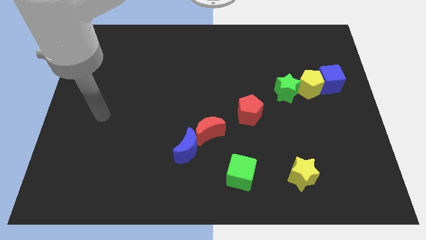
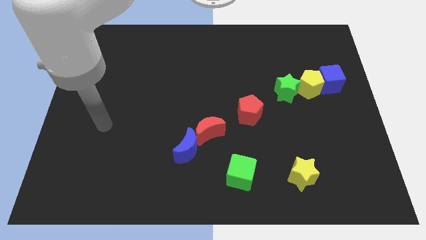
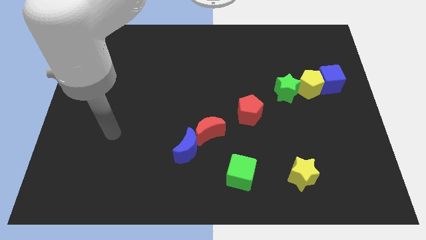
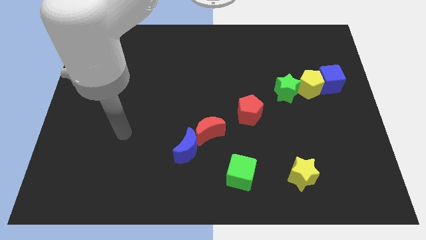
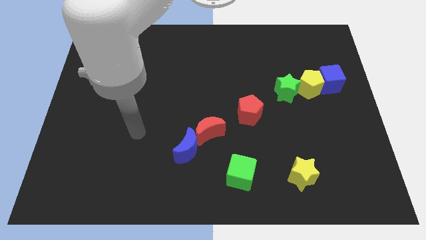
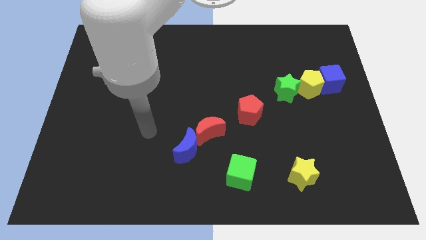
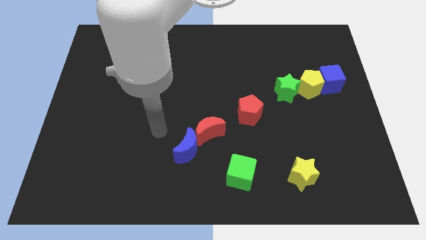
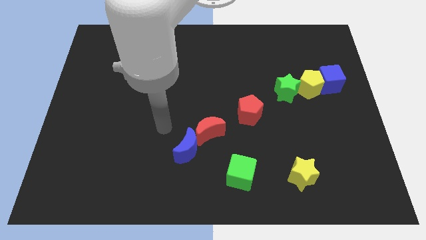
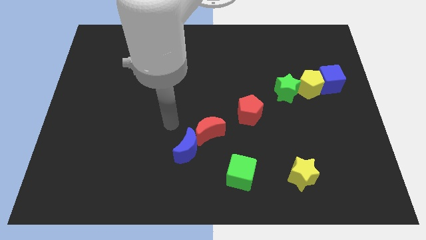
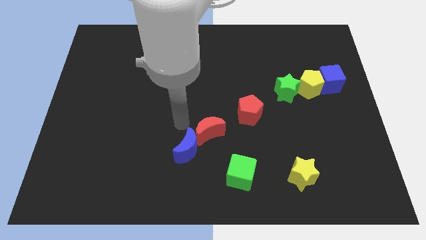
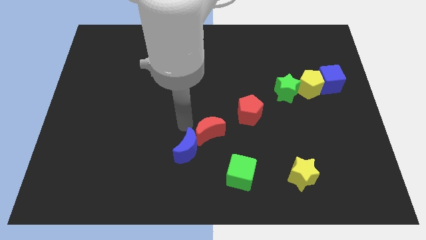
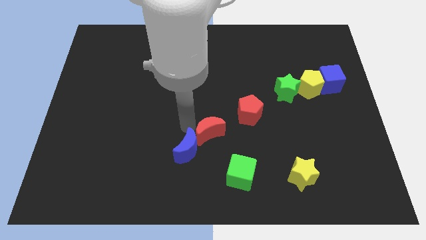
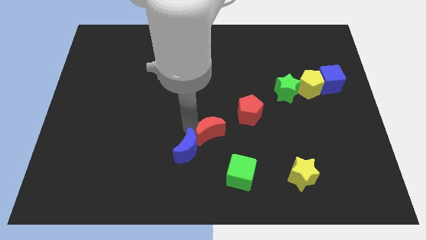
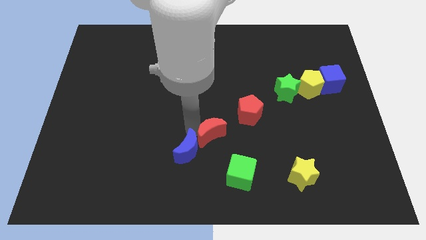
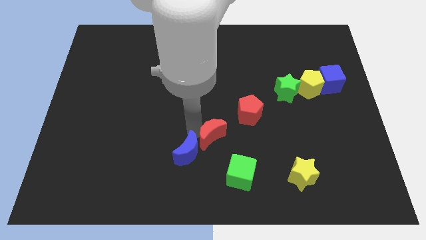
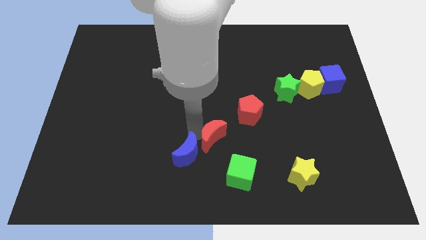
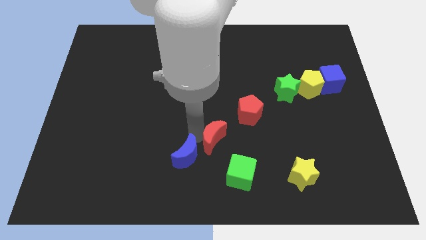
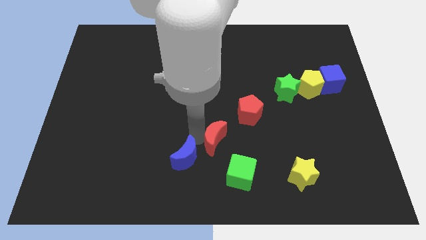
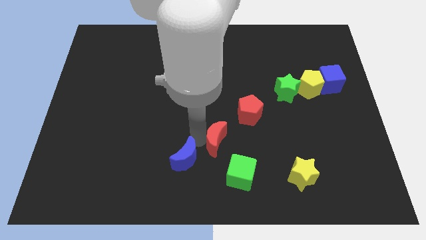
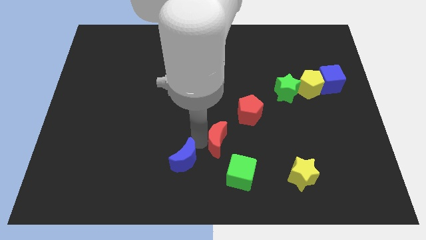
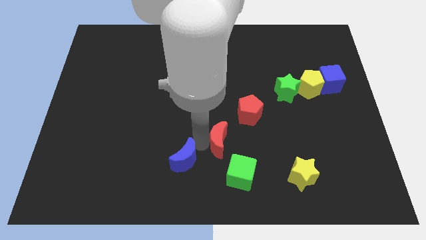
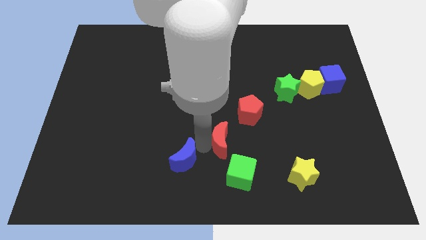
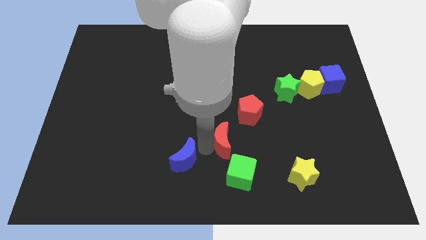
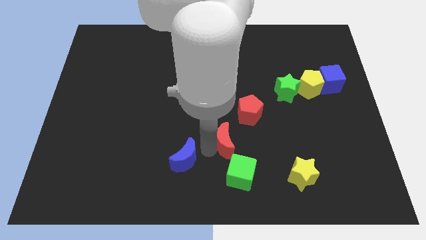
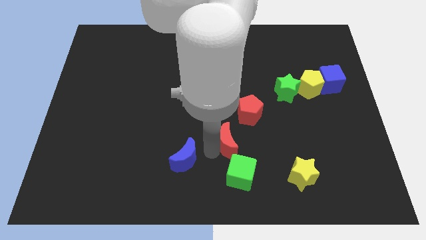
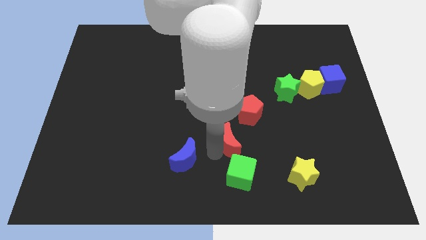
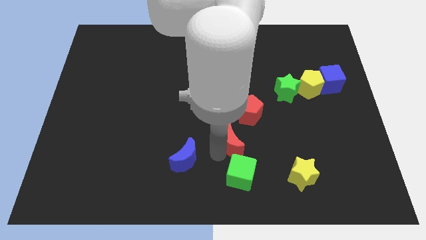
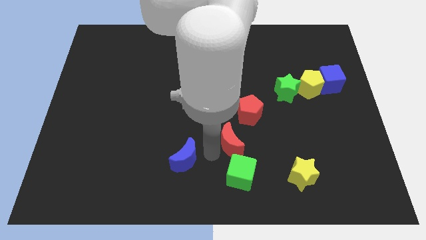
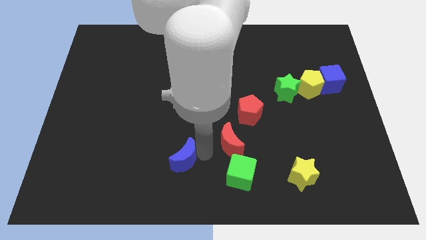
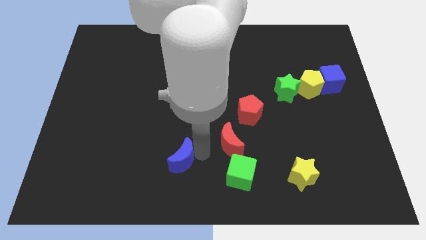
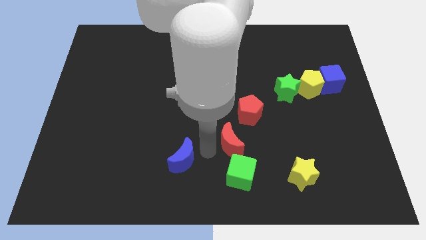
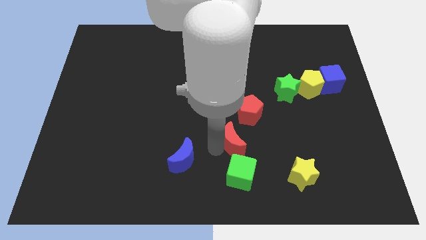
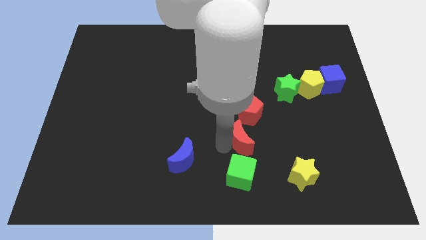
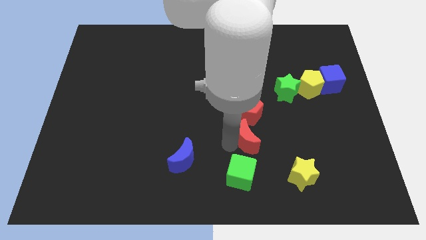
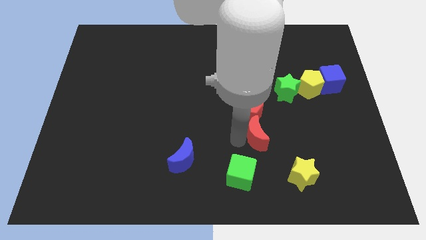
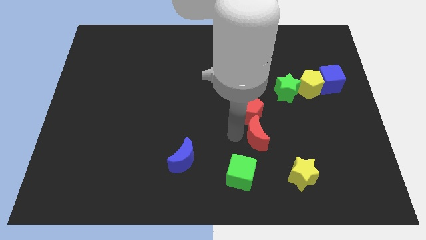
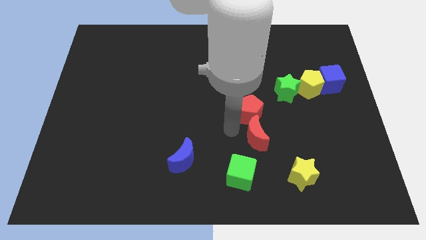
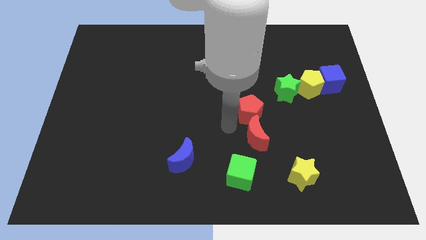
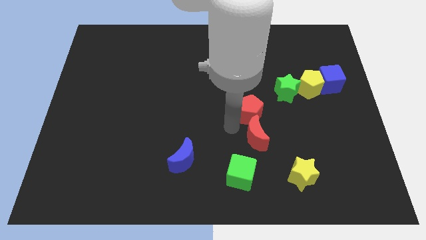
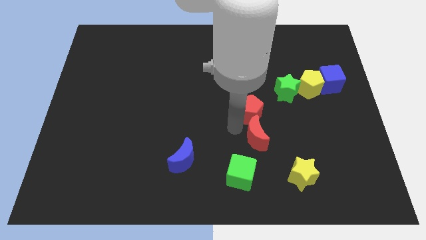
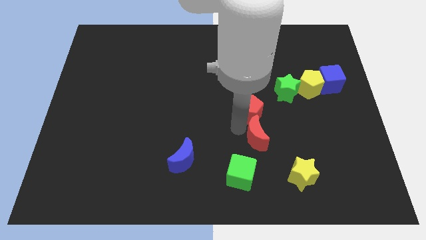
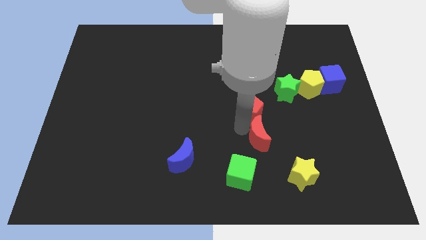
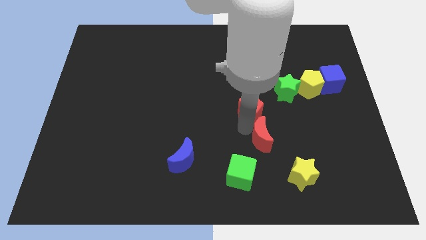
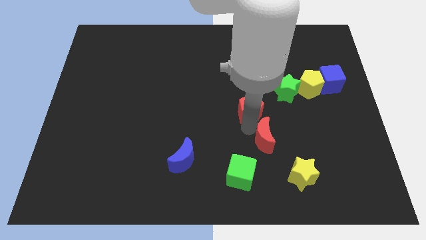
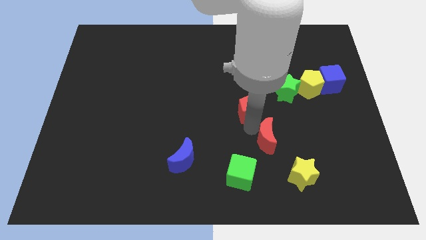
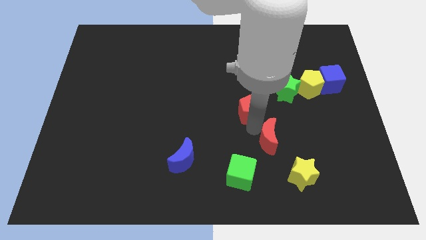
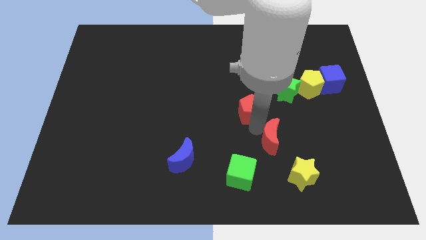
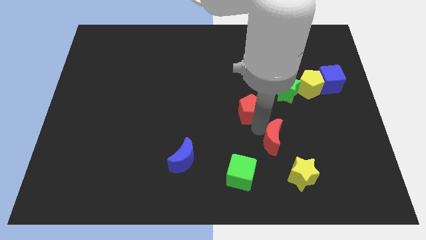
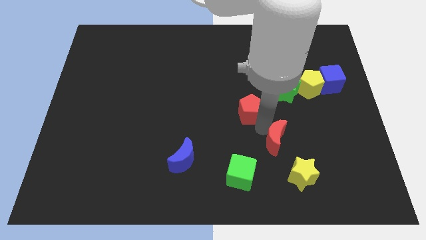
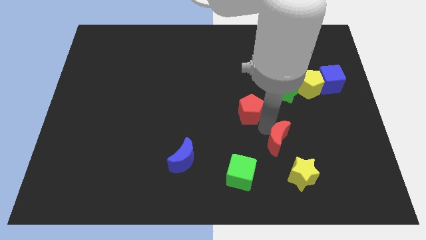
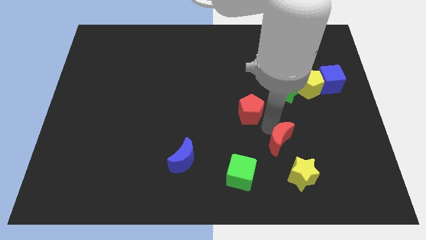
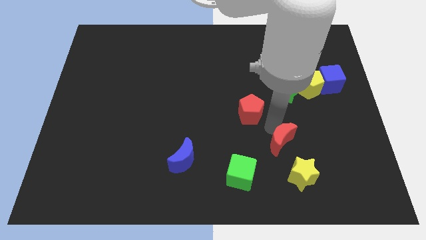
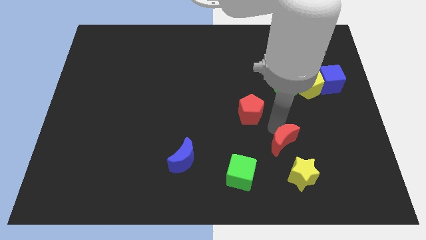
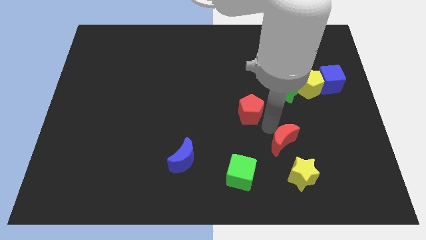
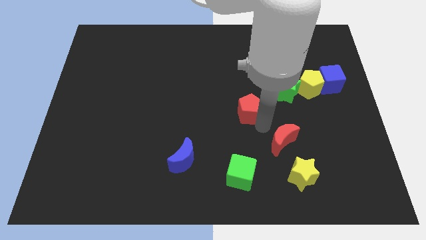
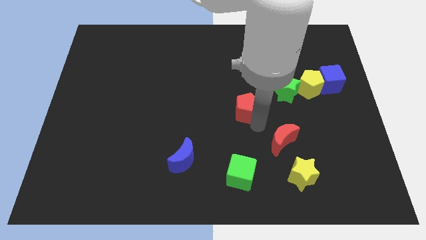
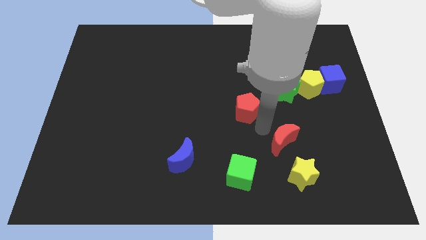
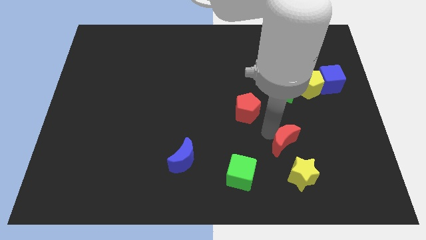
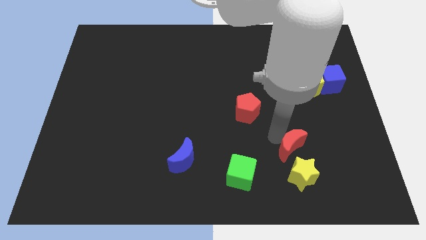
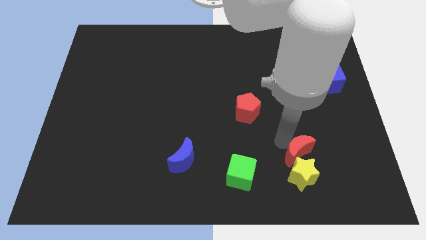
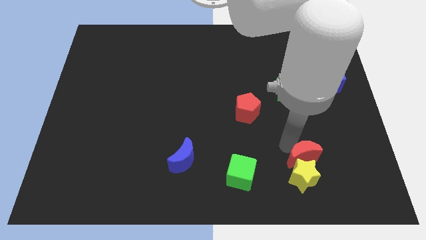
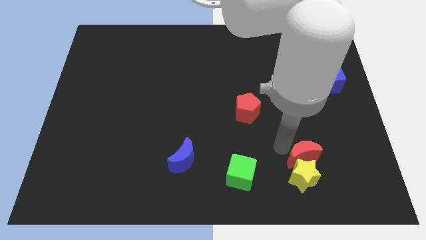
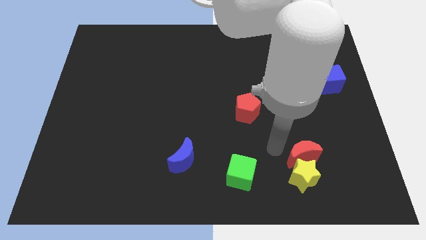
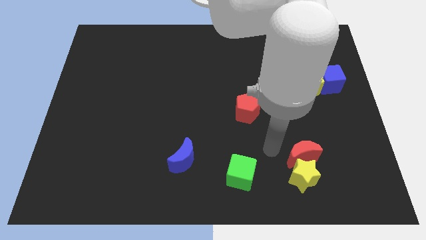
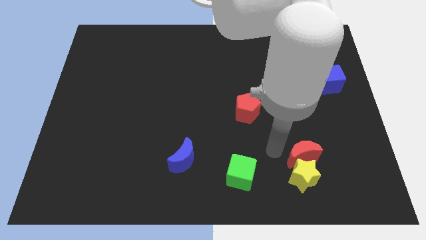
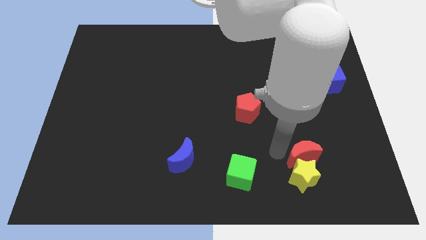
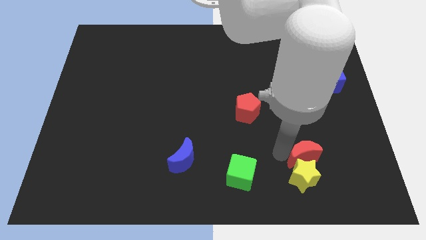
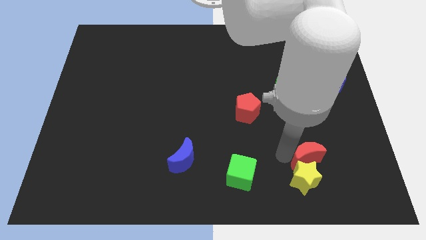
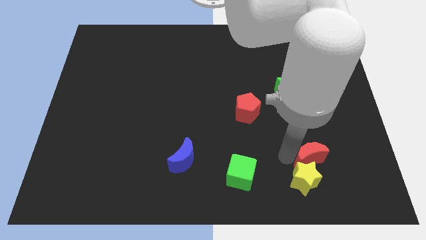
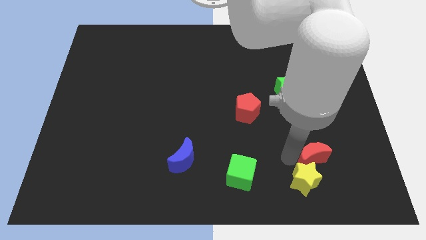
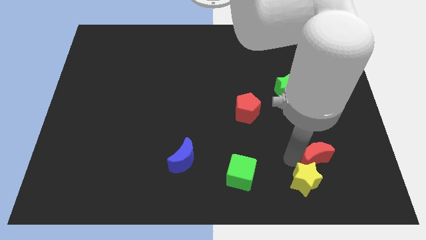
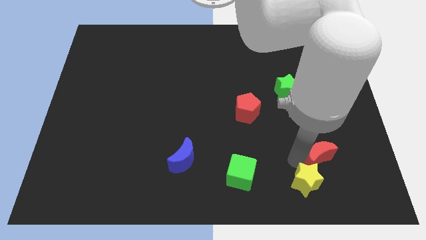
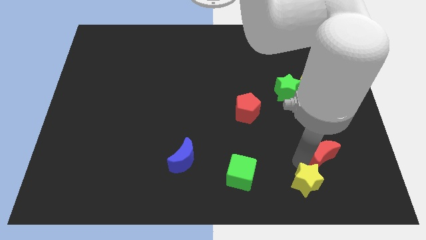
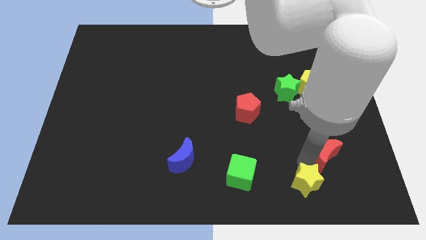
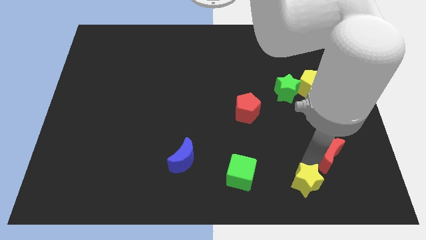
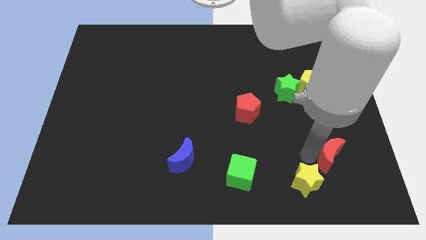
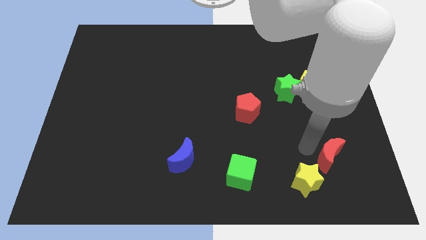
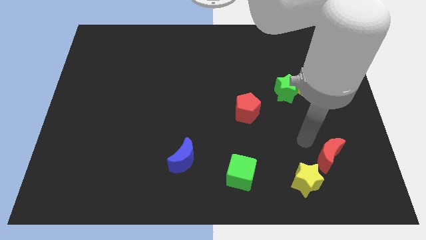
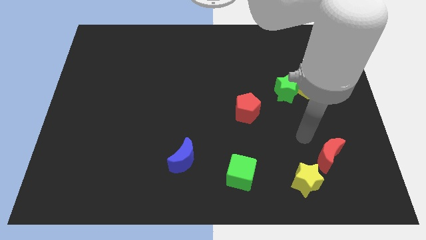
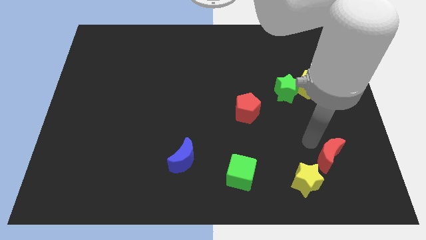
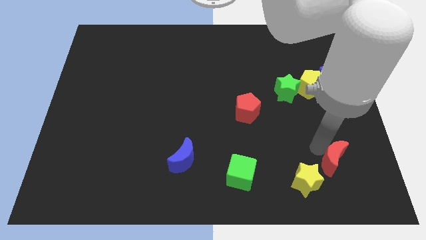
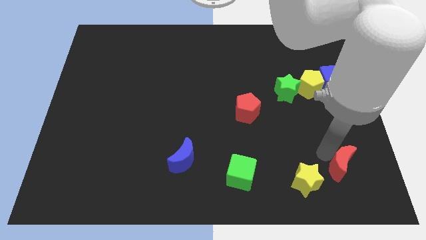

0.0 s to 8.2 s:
move the red moon to the right side of the yellow star
